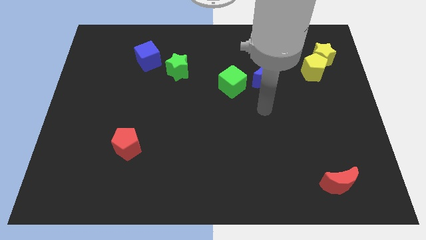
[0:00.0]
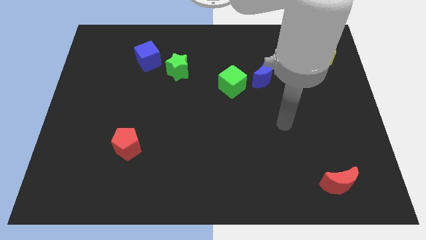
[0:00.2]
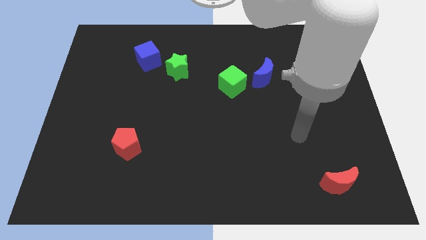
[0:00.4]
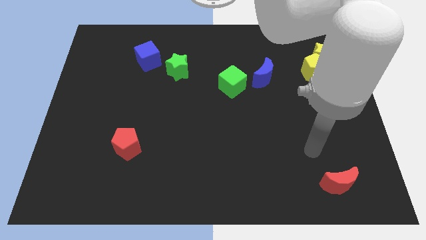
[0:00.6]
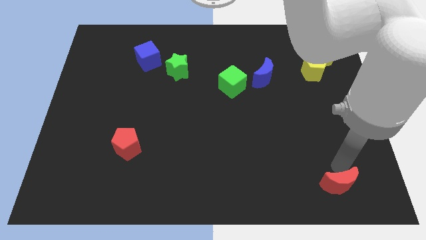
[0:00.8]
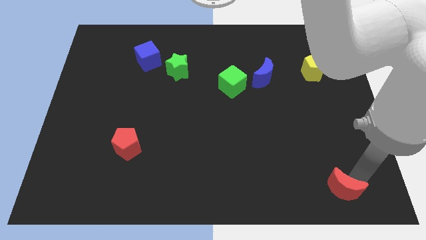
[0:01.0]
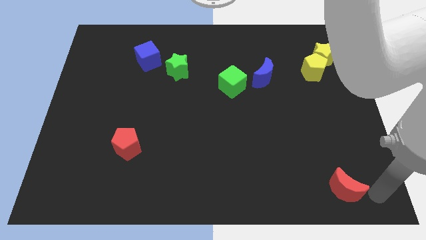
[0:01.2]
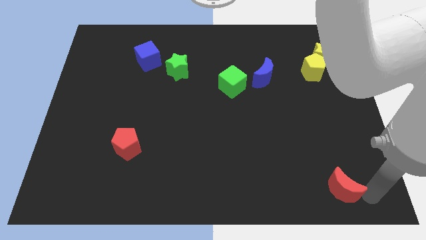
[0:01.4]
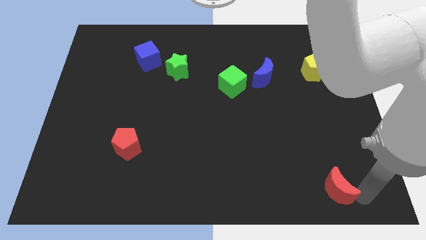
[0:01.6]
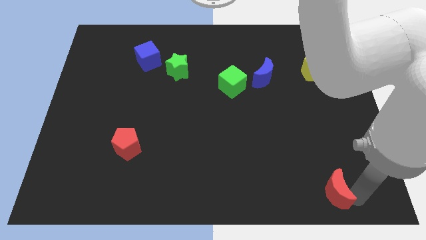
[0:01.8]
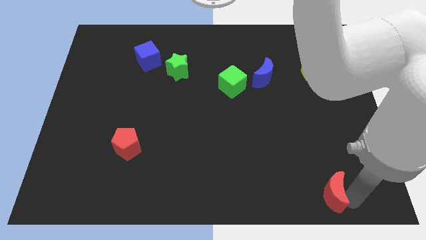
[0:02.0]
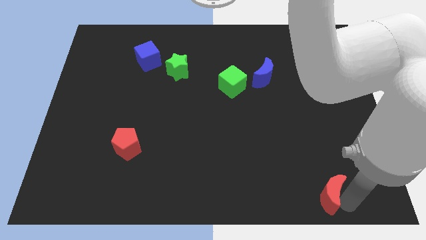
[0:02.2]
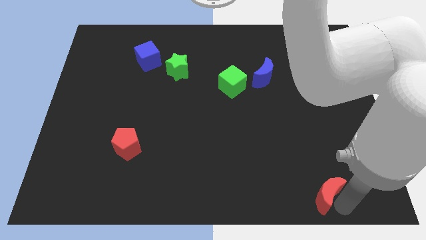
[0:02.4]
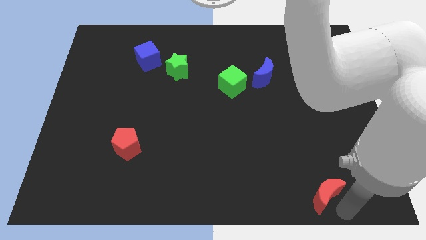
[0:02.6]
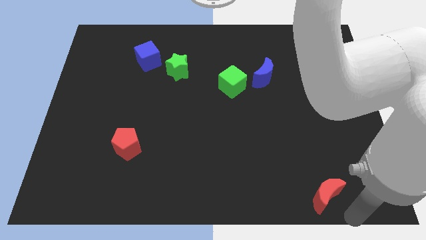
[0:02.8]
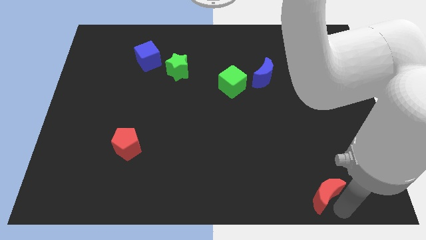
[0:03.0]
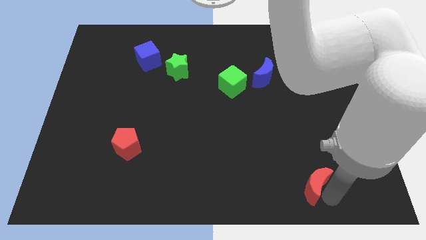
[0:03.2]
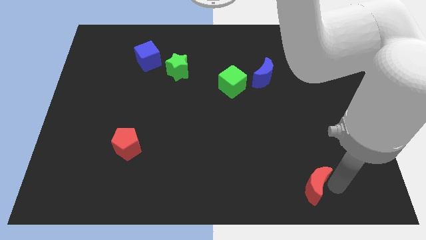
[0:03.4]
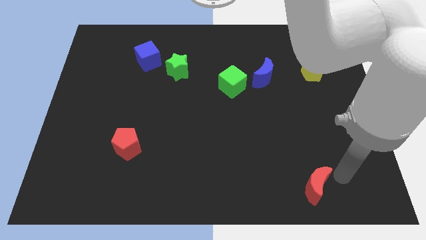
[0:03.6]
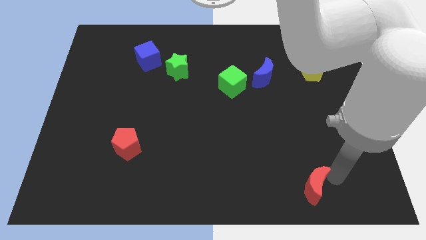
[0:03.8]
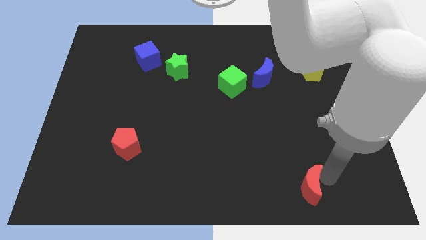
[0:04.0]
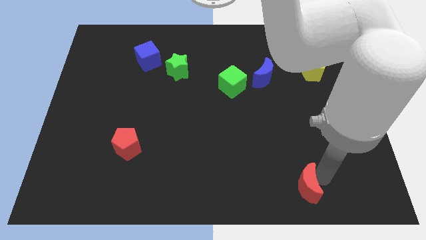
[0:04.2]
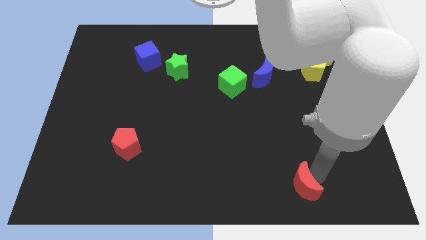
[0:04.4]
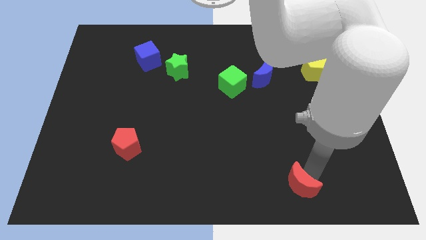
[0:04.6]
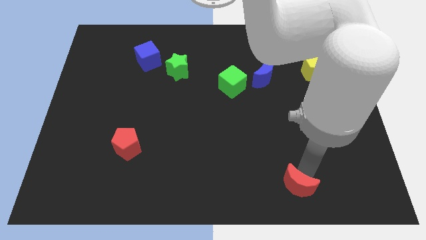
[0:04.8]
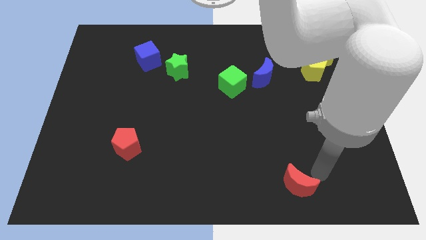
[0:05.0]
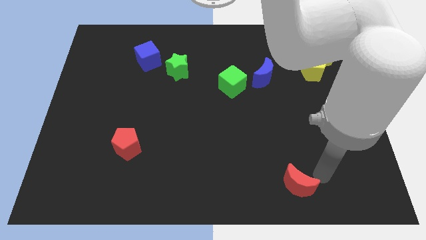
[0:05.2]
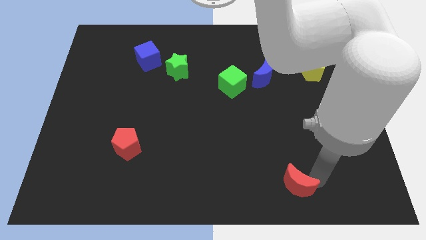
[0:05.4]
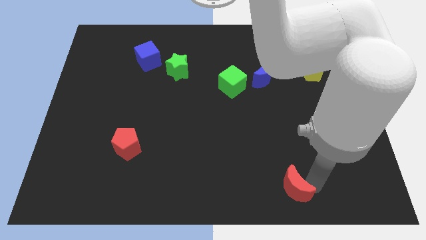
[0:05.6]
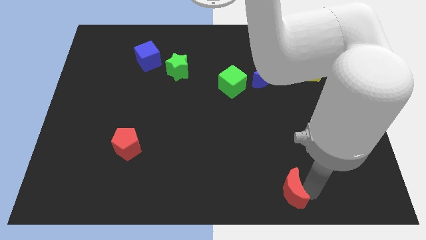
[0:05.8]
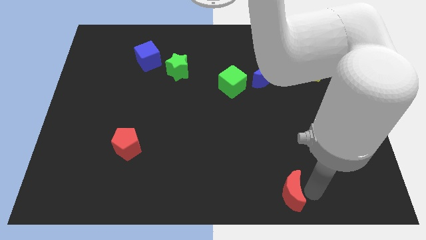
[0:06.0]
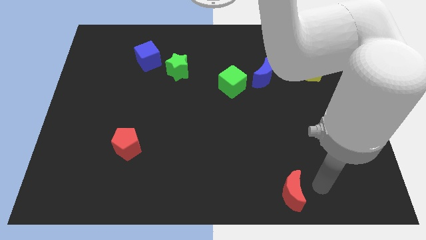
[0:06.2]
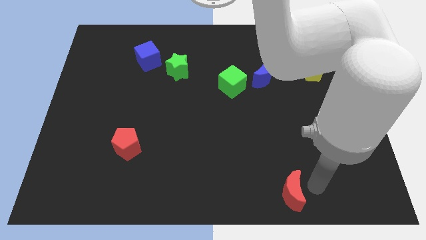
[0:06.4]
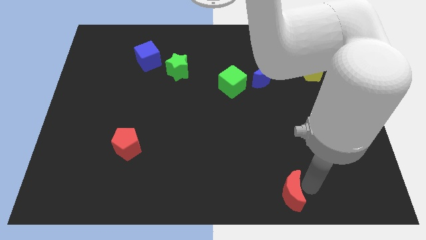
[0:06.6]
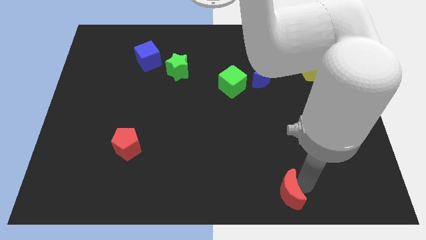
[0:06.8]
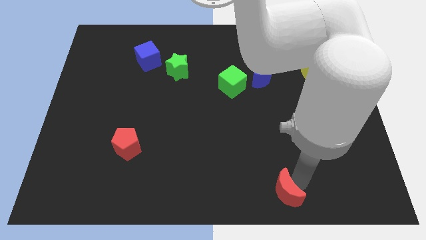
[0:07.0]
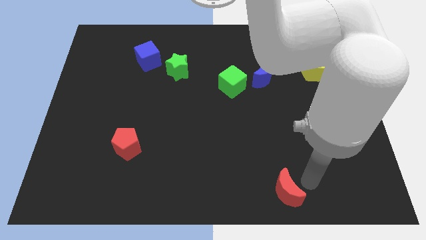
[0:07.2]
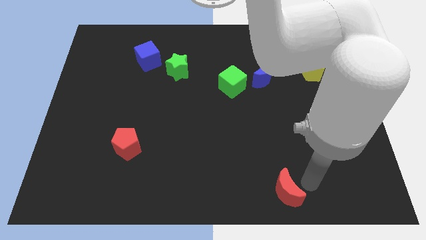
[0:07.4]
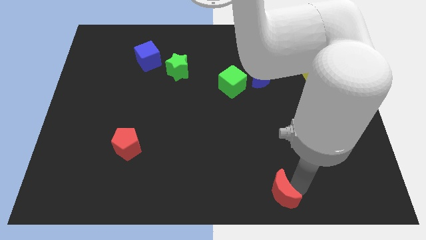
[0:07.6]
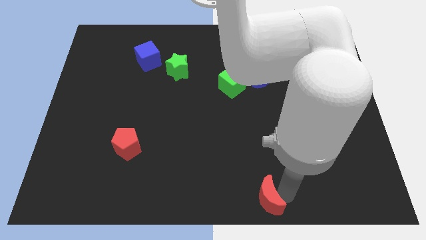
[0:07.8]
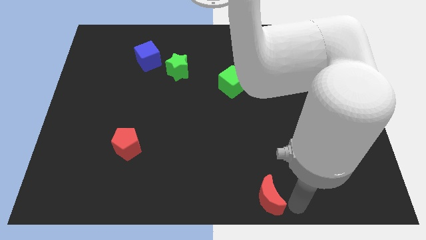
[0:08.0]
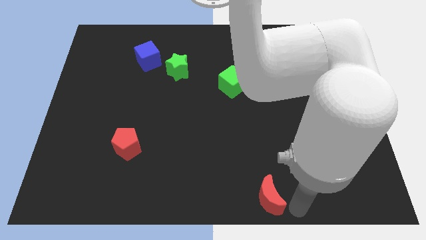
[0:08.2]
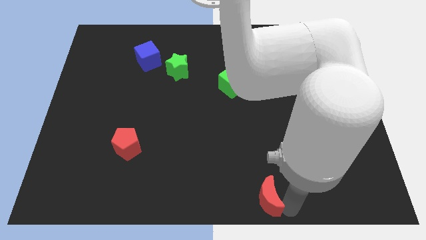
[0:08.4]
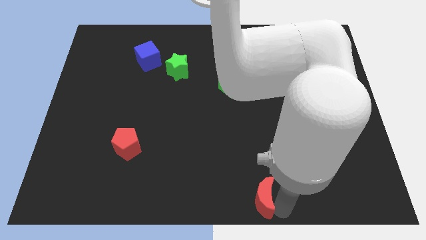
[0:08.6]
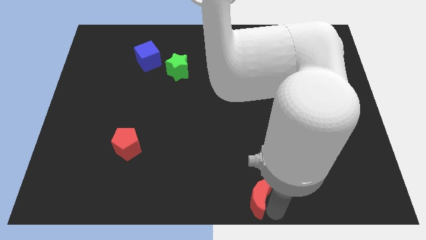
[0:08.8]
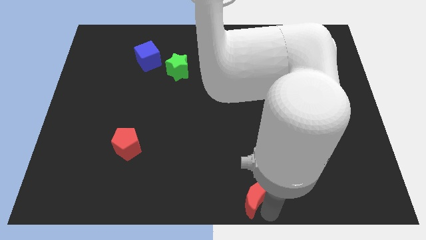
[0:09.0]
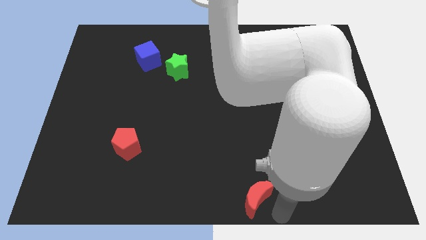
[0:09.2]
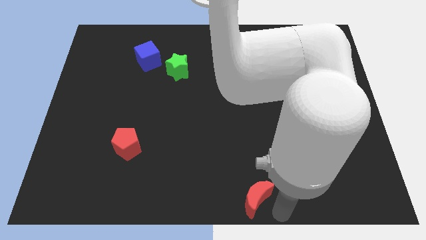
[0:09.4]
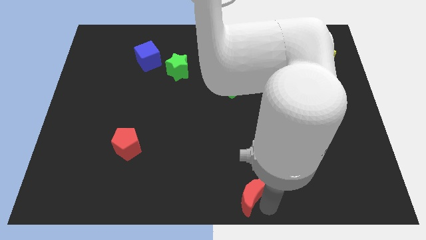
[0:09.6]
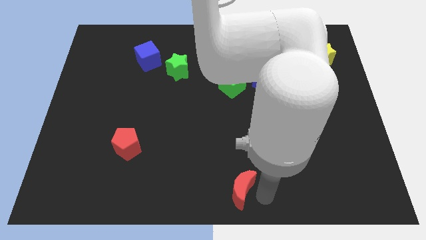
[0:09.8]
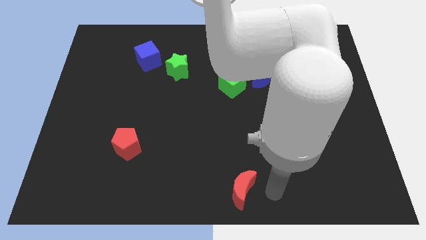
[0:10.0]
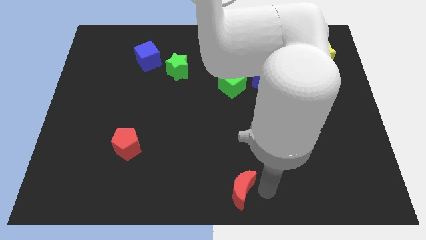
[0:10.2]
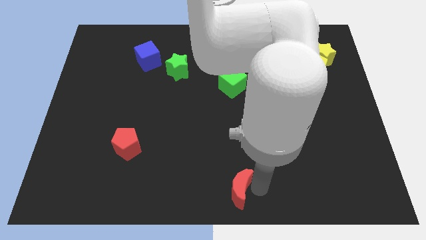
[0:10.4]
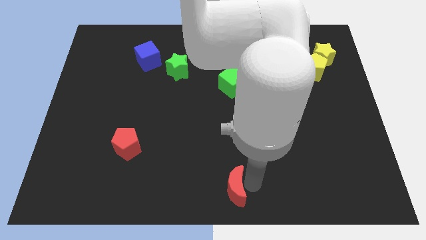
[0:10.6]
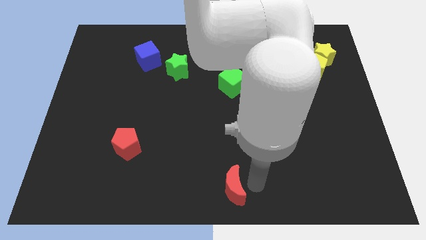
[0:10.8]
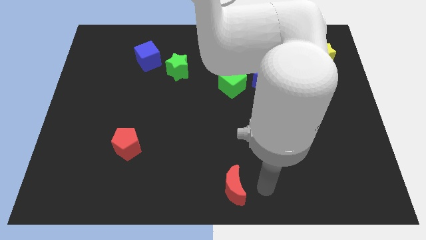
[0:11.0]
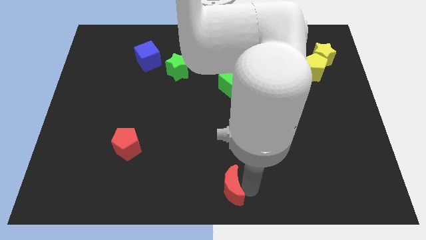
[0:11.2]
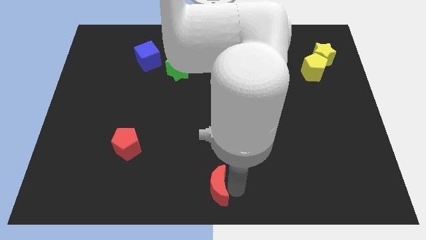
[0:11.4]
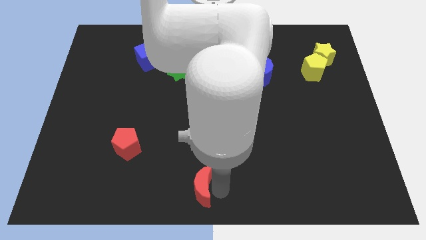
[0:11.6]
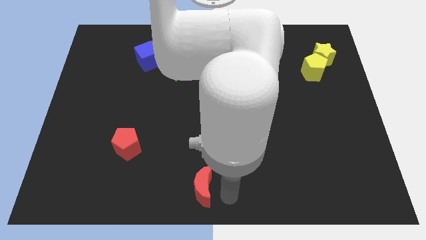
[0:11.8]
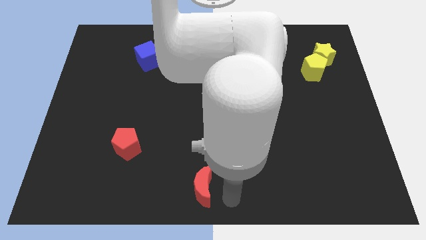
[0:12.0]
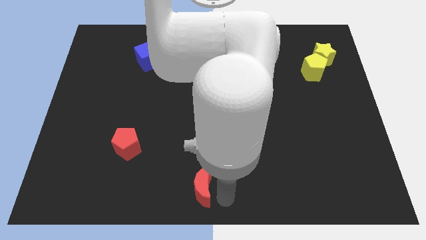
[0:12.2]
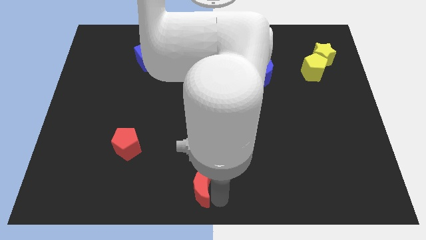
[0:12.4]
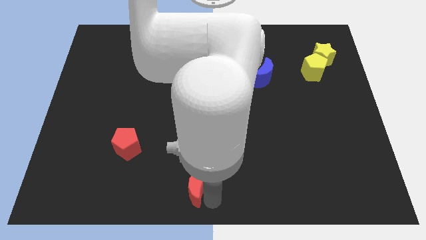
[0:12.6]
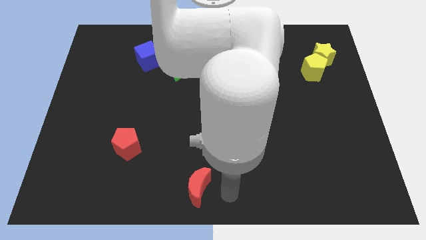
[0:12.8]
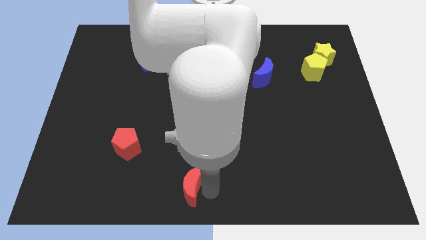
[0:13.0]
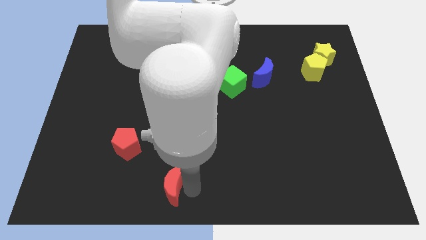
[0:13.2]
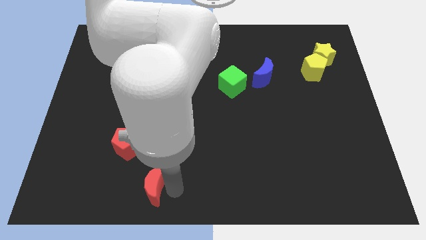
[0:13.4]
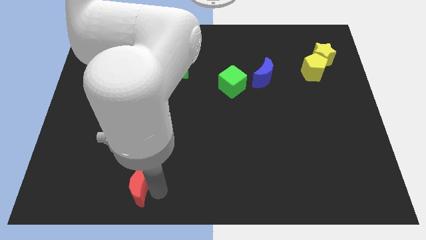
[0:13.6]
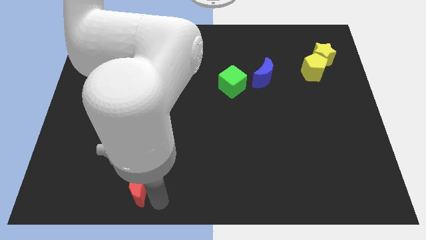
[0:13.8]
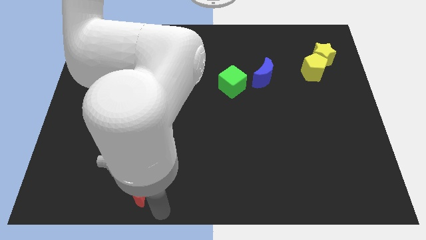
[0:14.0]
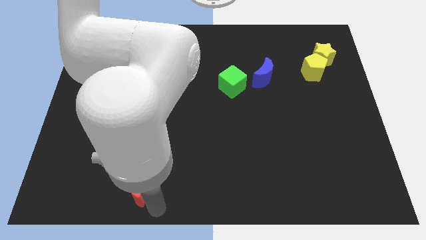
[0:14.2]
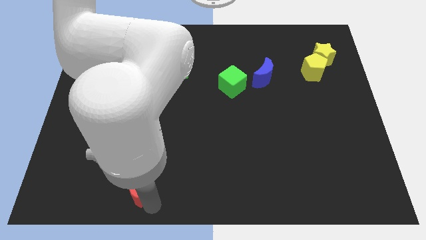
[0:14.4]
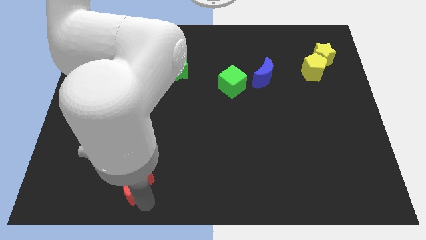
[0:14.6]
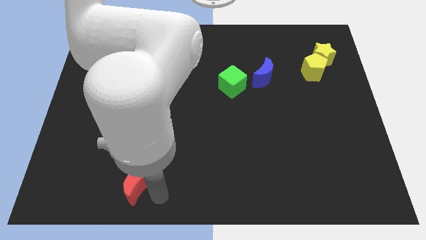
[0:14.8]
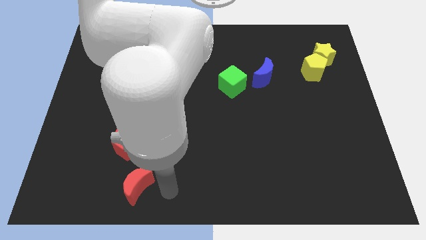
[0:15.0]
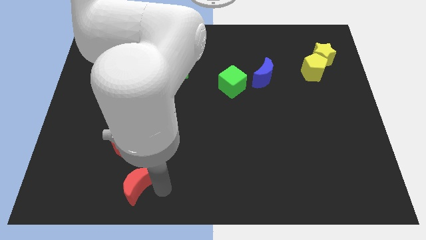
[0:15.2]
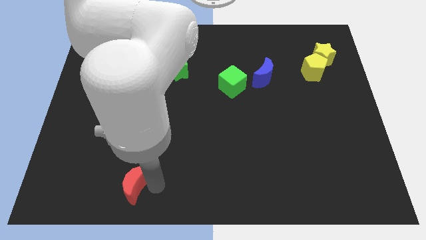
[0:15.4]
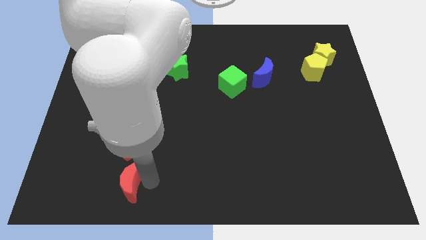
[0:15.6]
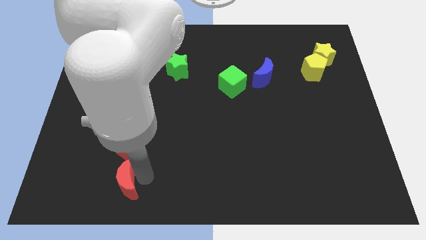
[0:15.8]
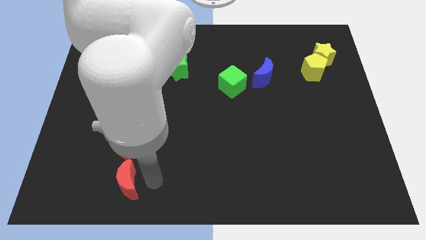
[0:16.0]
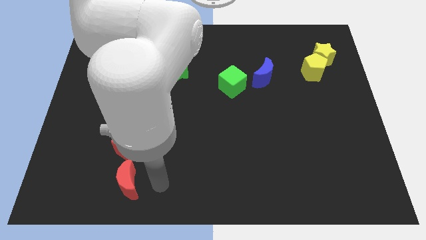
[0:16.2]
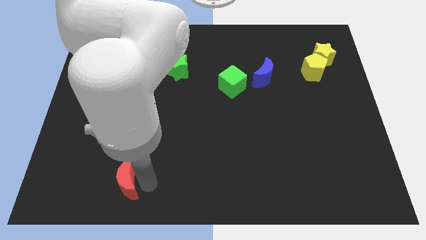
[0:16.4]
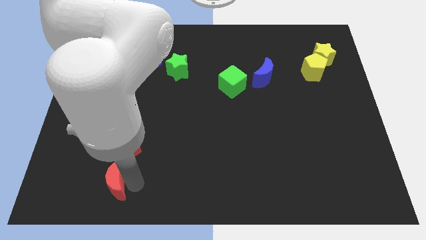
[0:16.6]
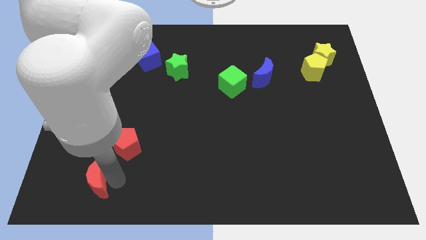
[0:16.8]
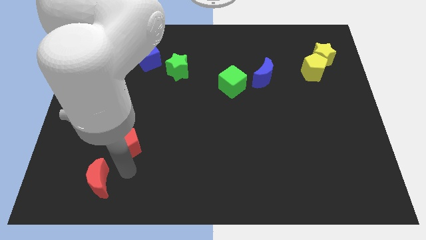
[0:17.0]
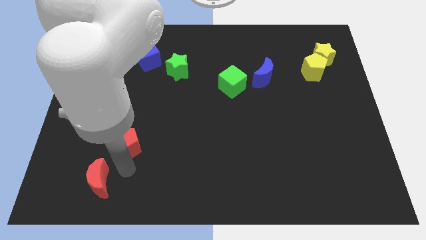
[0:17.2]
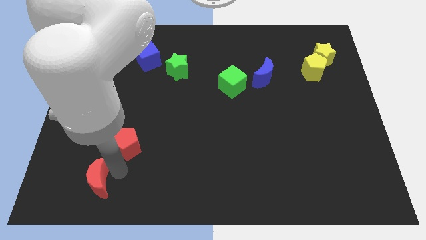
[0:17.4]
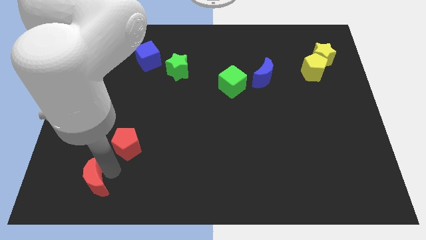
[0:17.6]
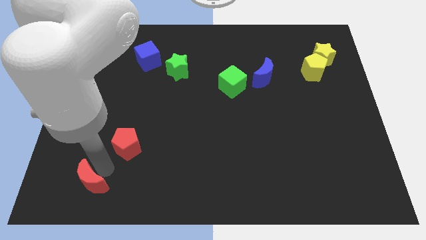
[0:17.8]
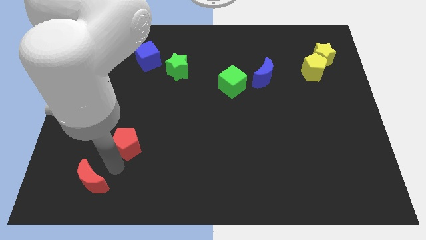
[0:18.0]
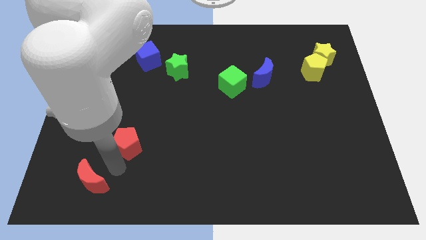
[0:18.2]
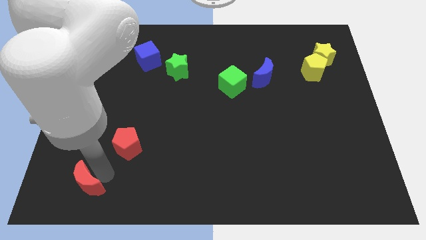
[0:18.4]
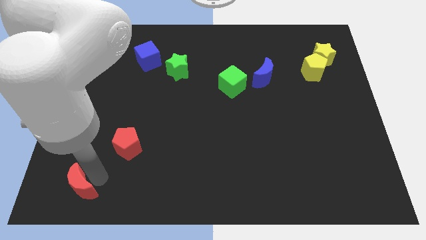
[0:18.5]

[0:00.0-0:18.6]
slide the red moon to the bottom left corner
